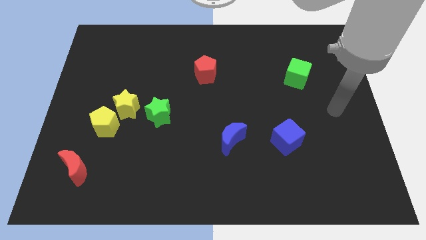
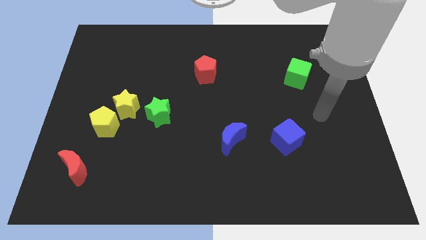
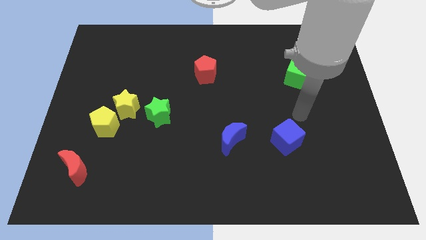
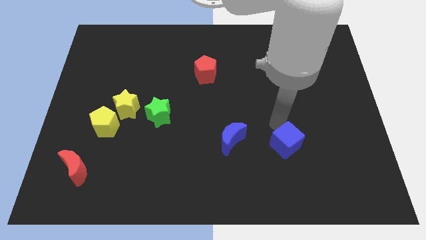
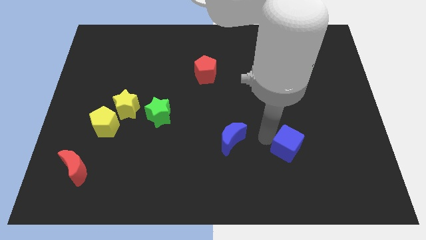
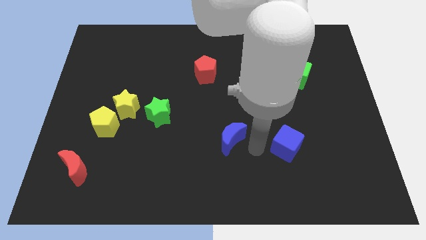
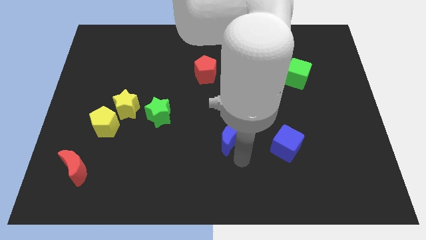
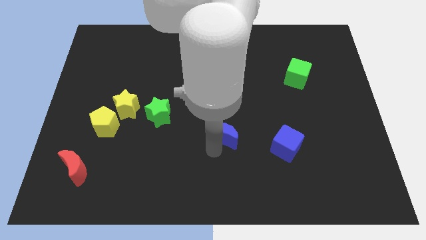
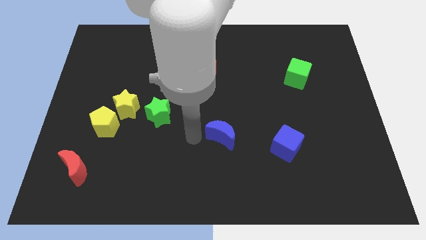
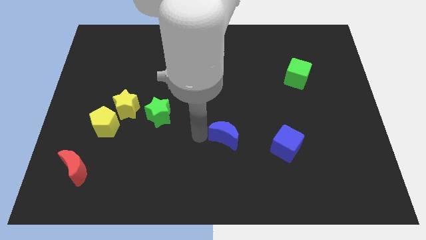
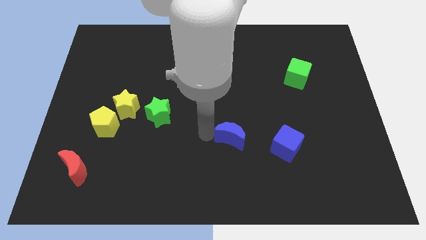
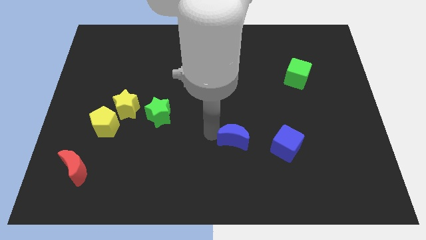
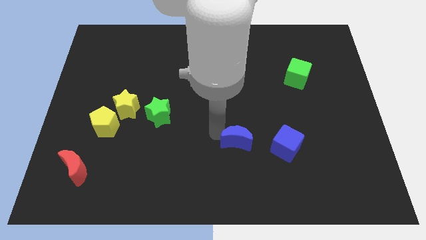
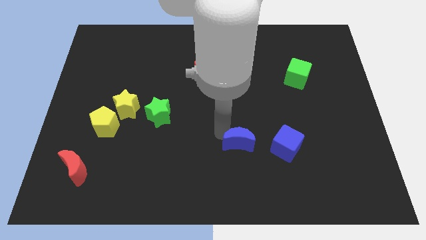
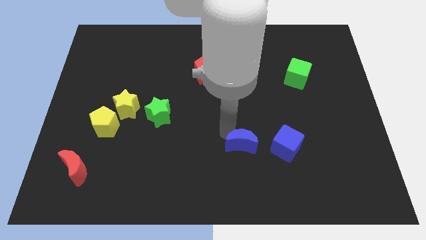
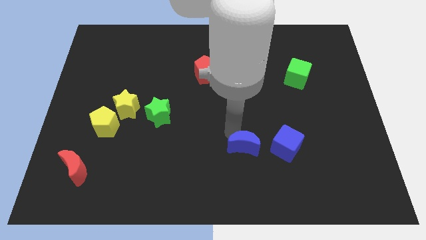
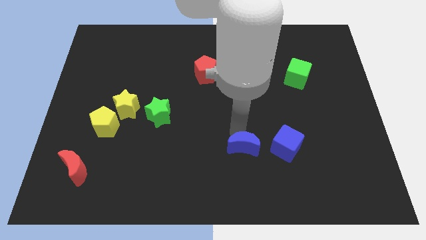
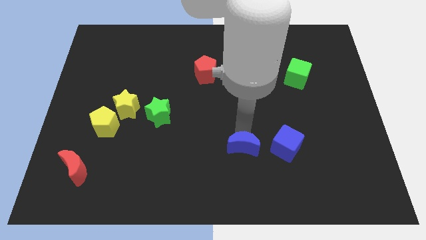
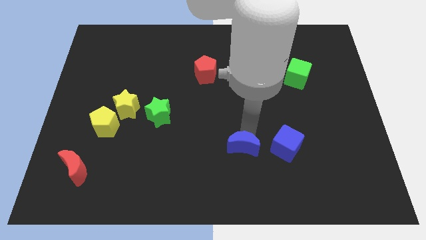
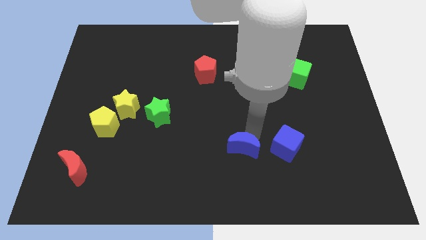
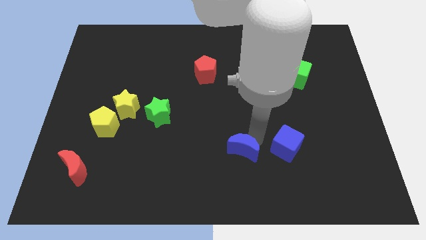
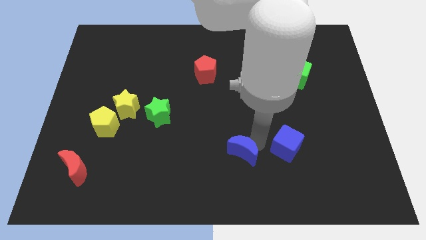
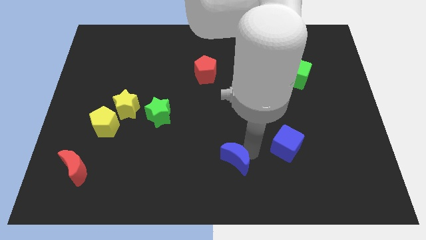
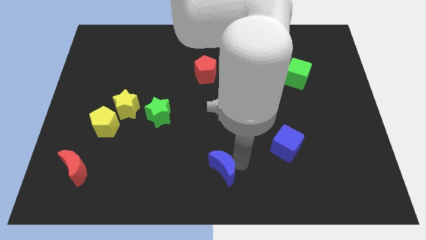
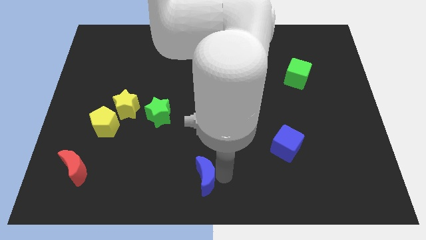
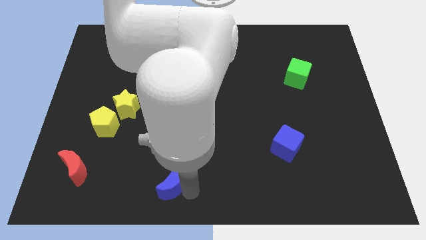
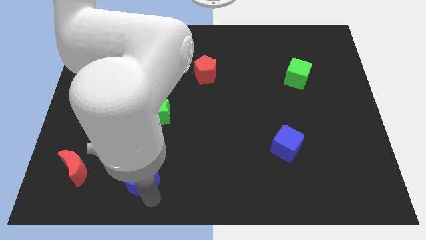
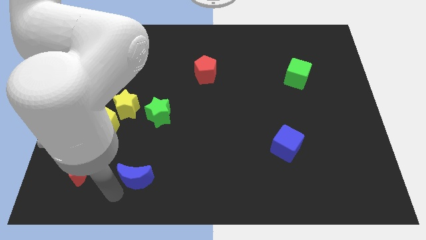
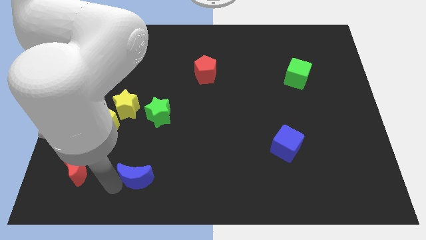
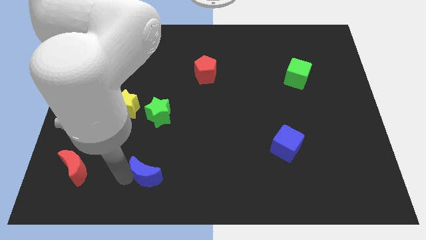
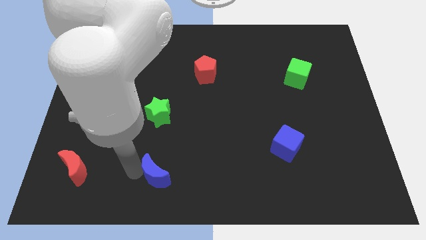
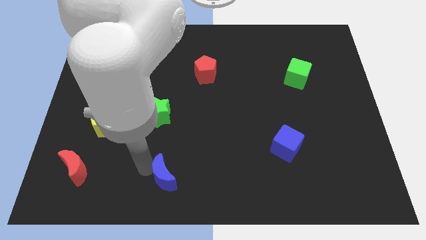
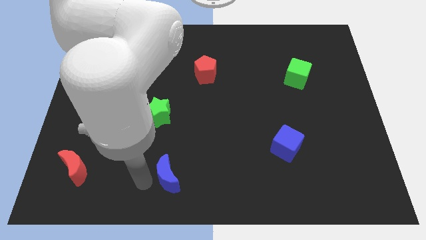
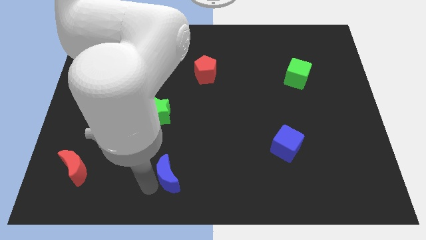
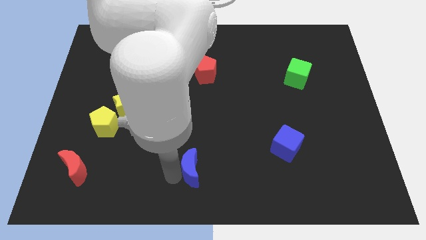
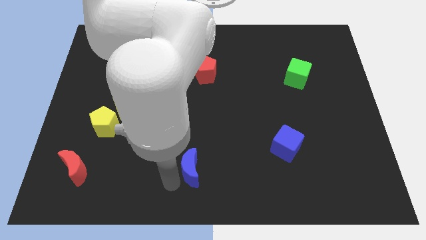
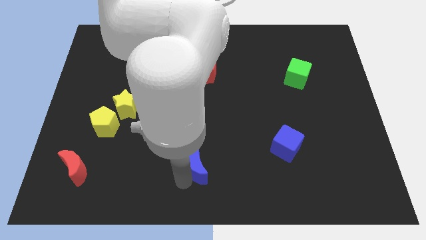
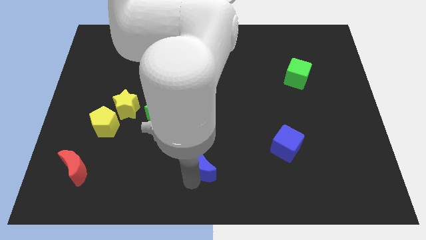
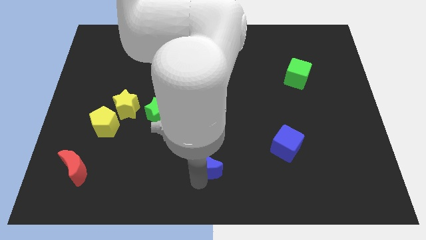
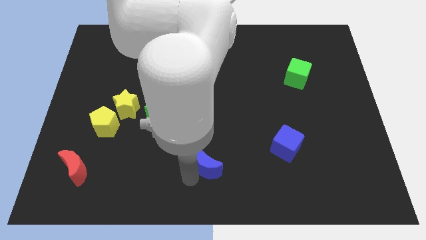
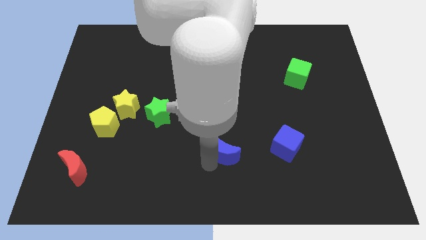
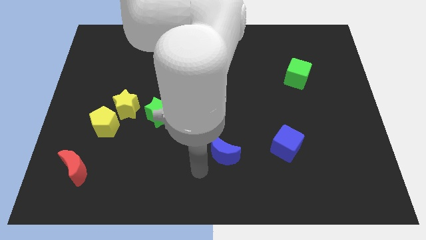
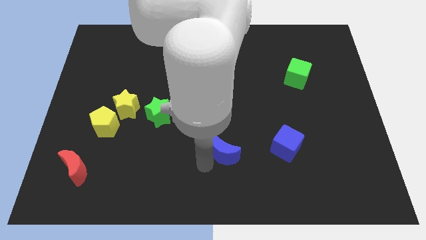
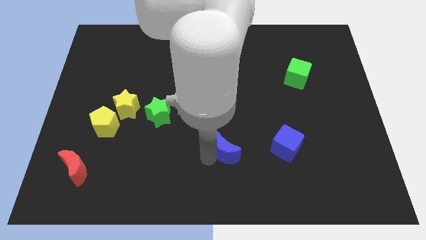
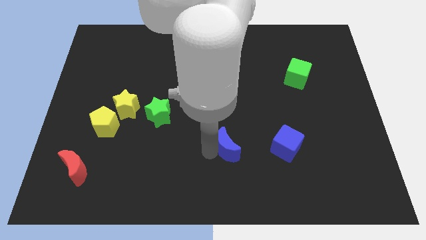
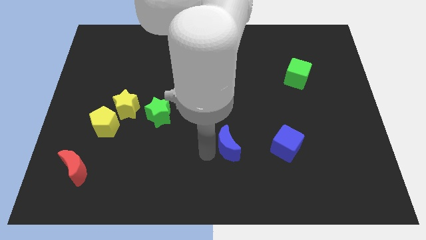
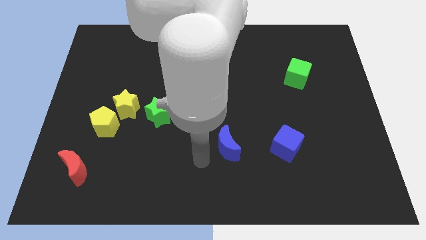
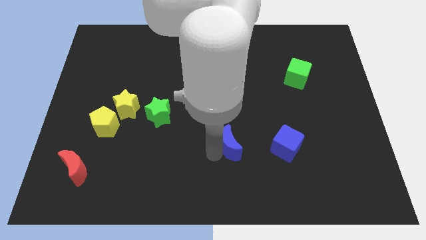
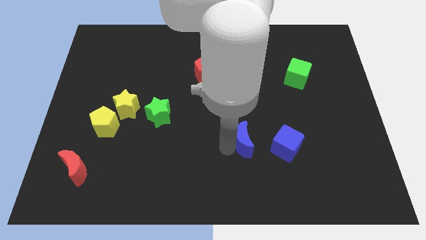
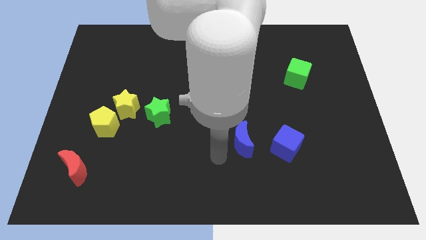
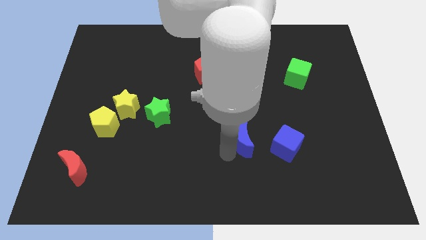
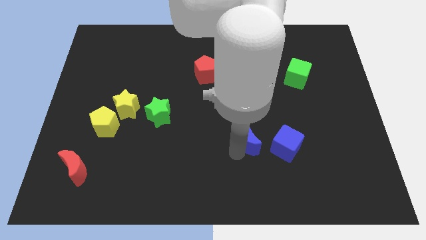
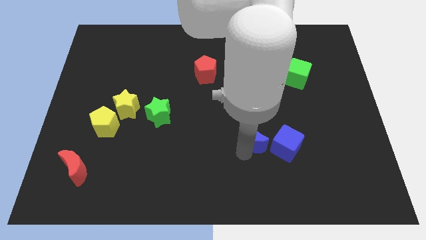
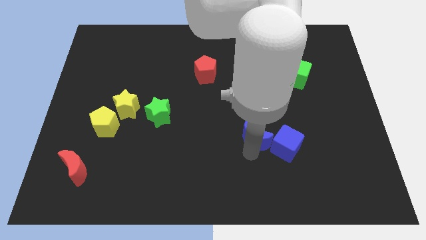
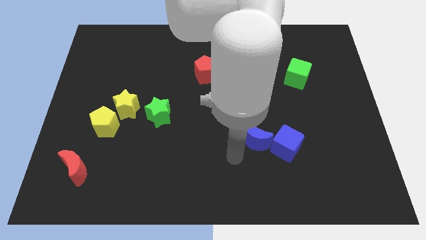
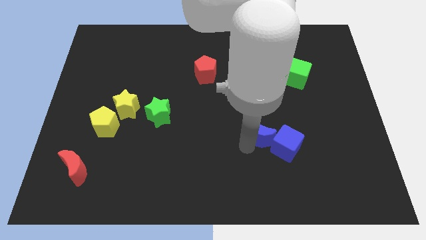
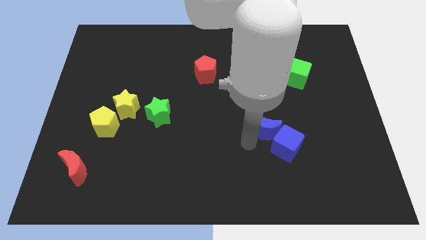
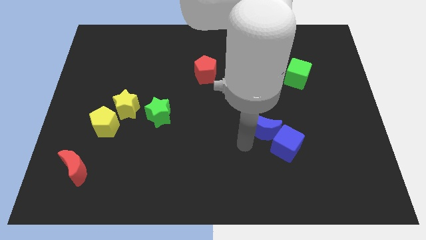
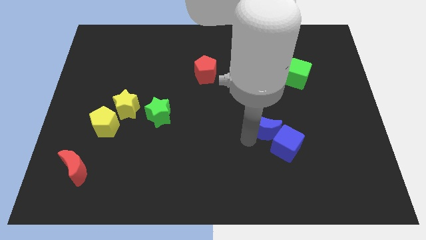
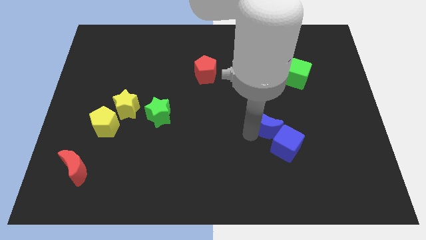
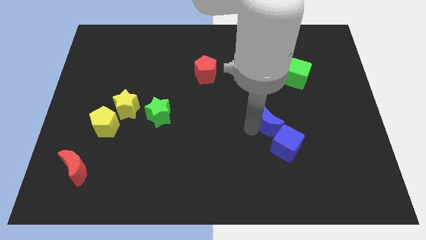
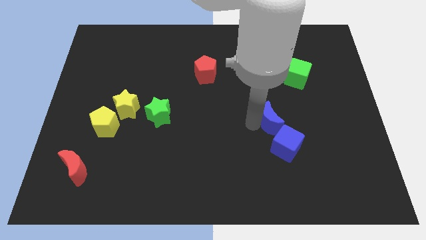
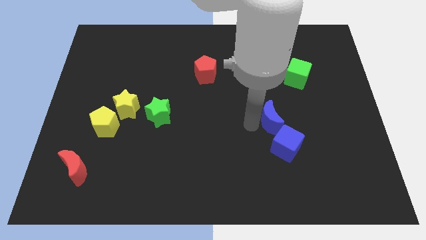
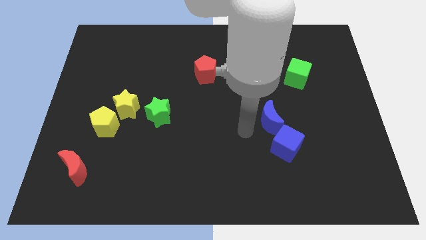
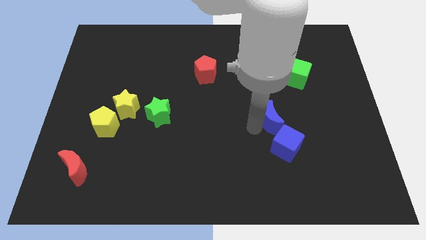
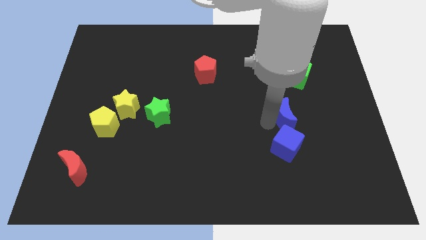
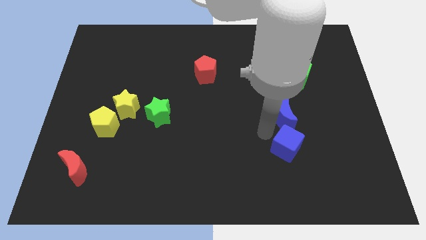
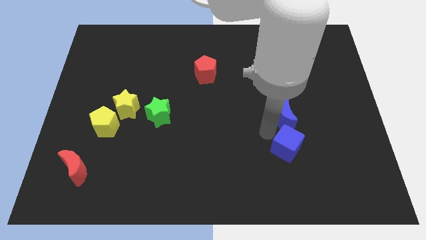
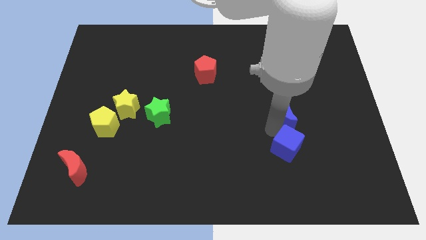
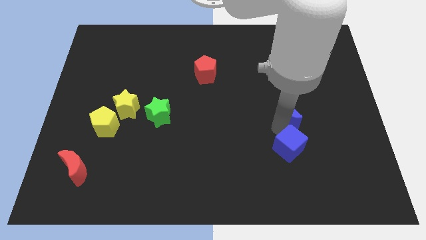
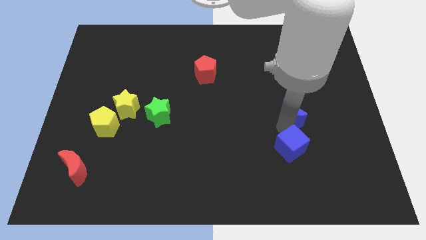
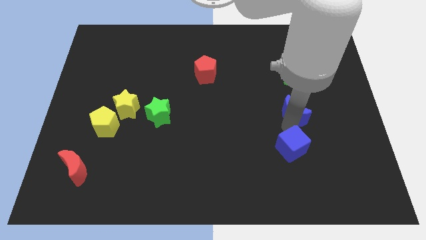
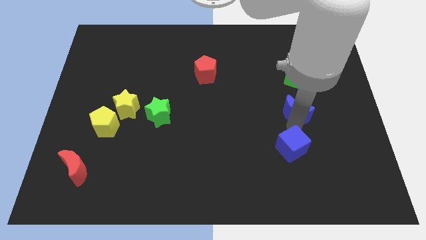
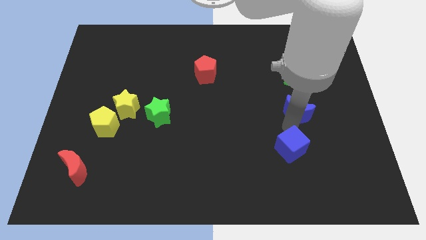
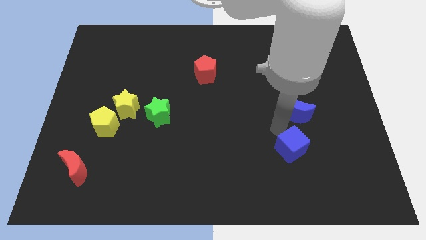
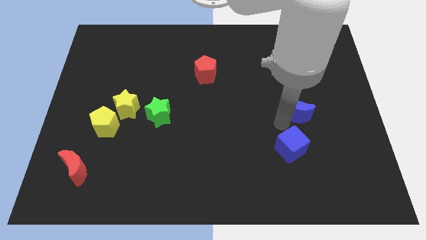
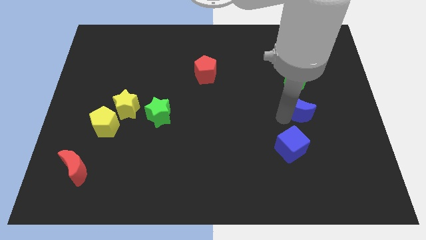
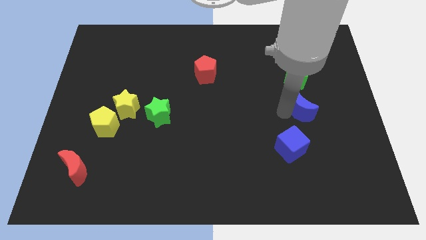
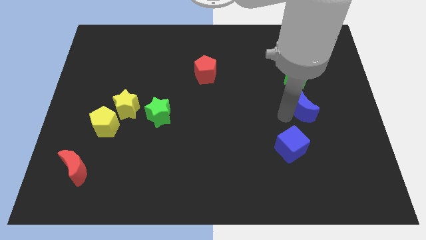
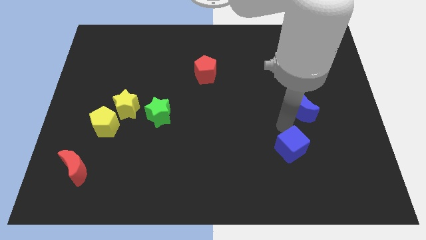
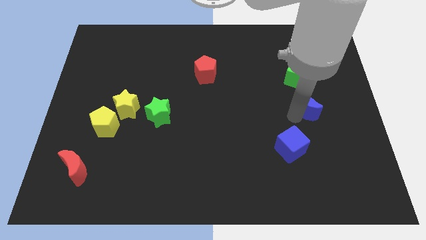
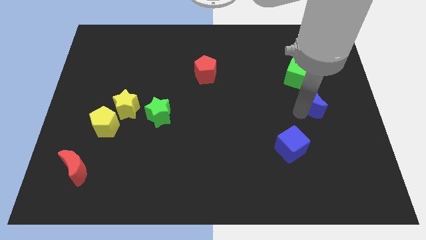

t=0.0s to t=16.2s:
move the blue moon to the bottom right of the green cube
